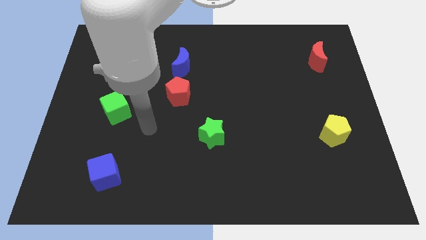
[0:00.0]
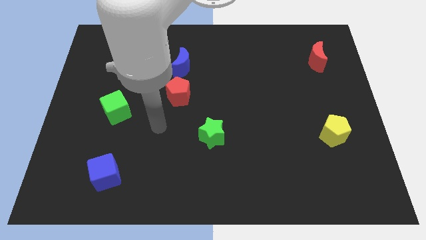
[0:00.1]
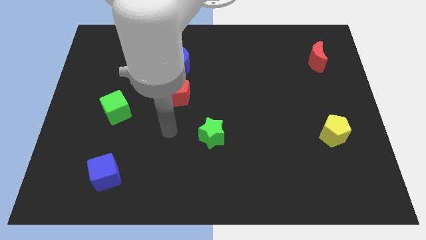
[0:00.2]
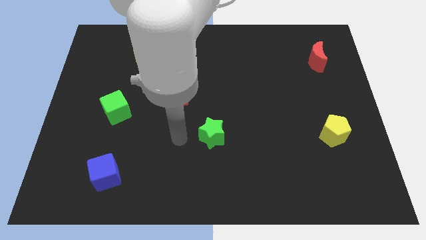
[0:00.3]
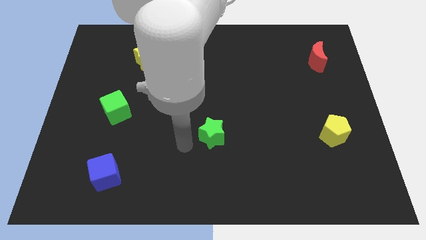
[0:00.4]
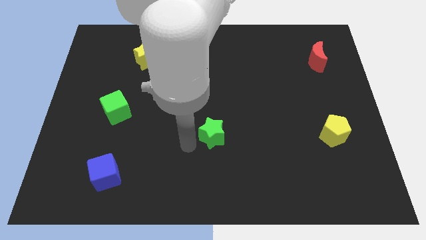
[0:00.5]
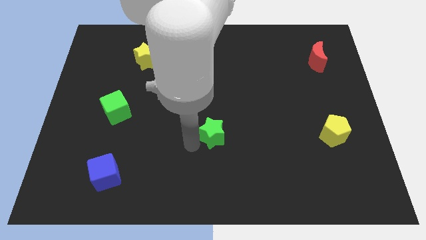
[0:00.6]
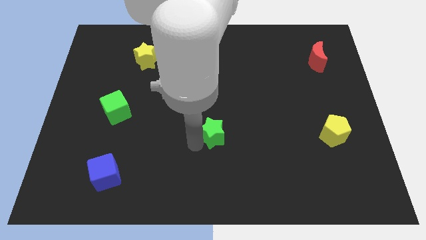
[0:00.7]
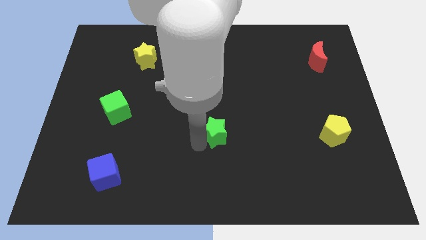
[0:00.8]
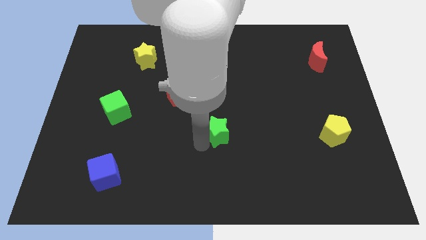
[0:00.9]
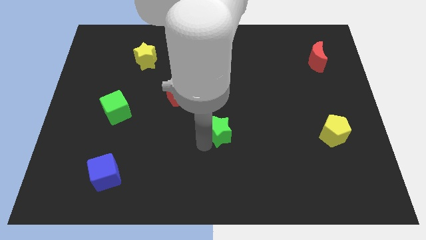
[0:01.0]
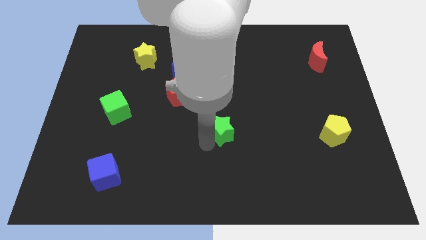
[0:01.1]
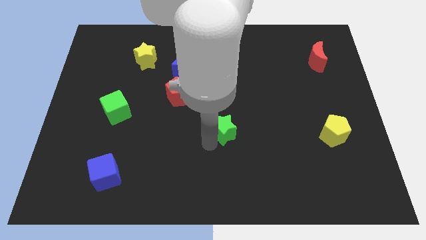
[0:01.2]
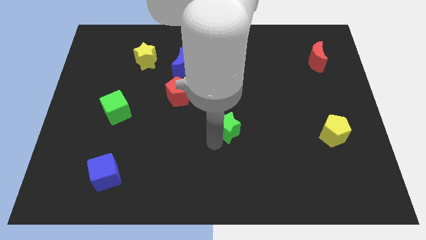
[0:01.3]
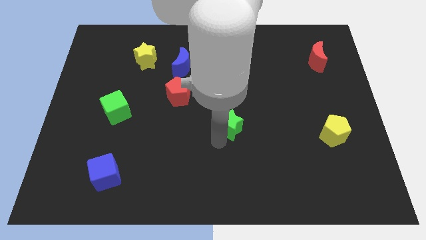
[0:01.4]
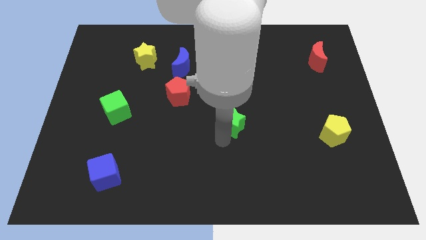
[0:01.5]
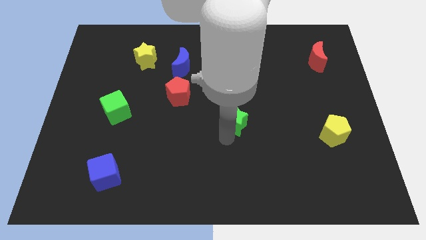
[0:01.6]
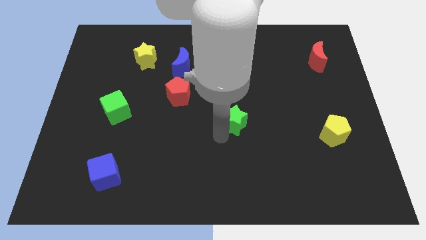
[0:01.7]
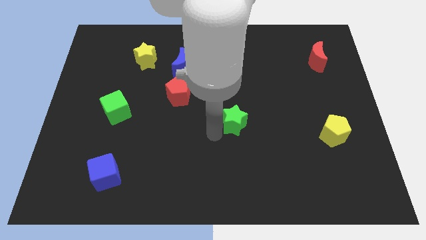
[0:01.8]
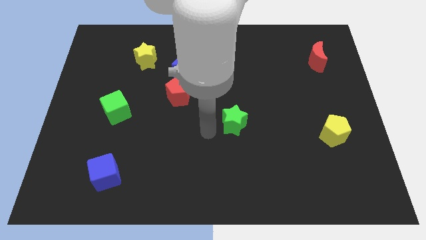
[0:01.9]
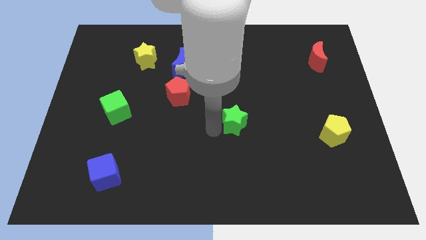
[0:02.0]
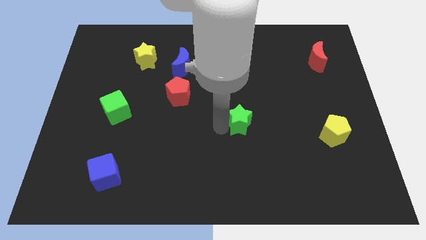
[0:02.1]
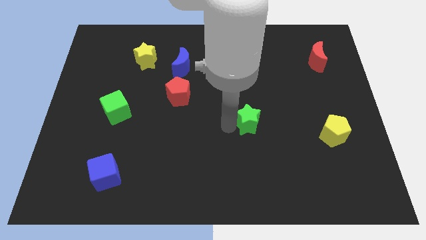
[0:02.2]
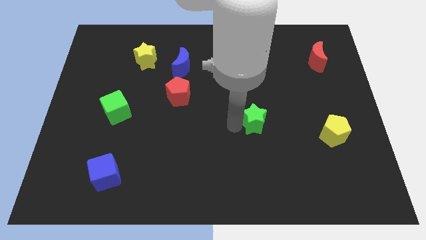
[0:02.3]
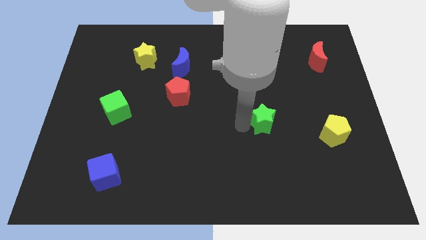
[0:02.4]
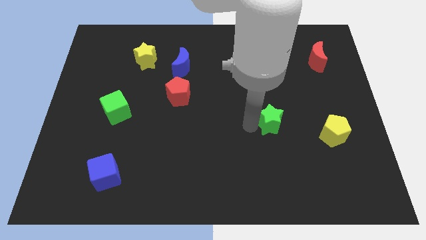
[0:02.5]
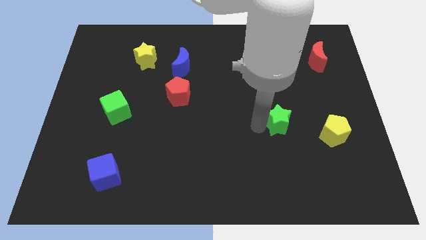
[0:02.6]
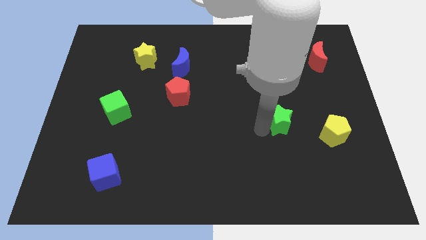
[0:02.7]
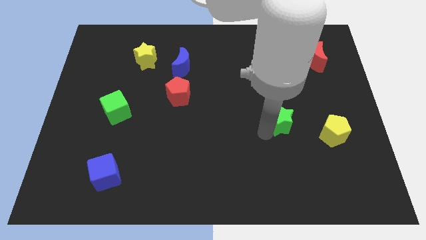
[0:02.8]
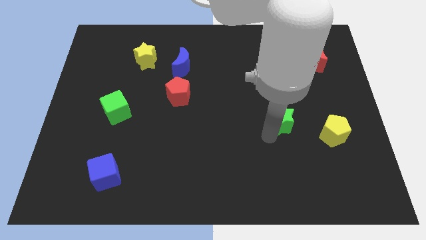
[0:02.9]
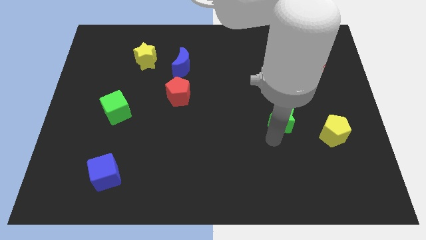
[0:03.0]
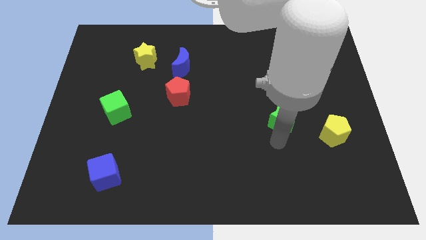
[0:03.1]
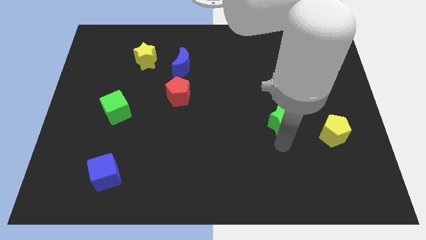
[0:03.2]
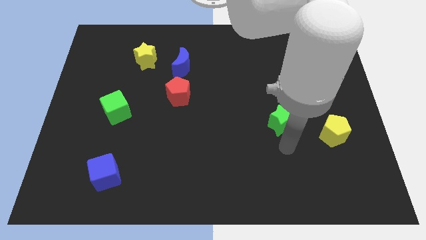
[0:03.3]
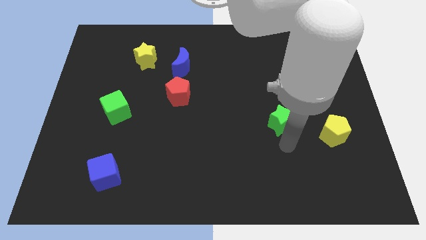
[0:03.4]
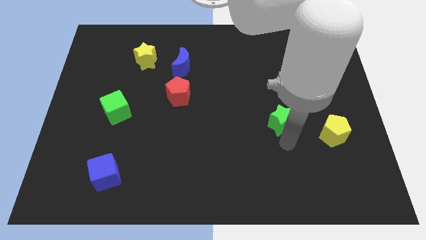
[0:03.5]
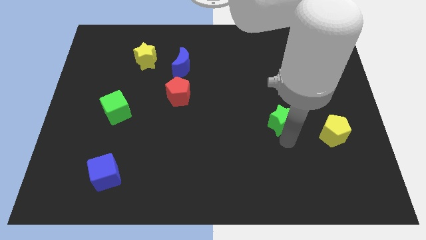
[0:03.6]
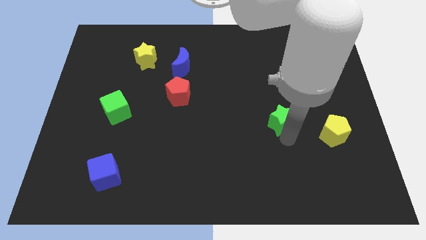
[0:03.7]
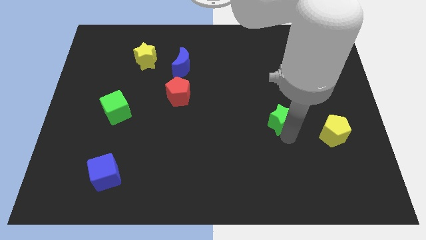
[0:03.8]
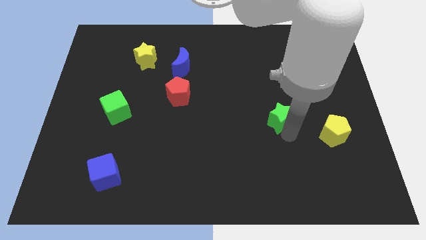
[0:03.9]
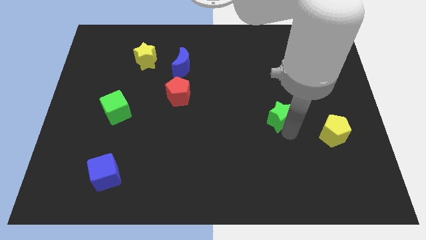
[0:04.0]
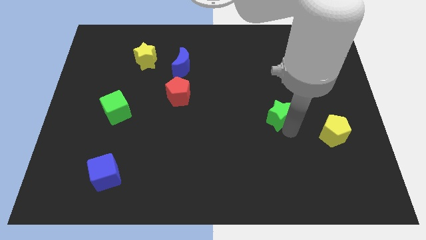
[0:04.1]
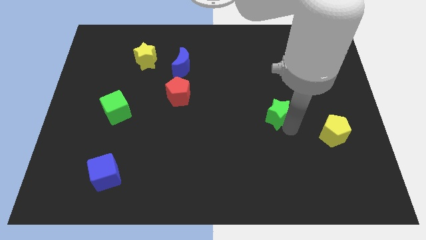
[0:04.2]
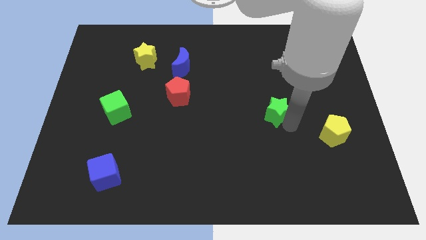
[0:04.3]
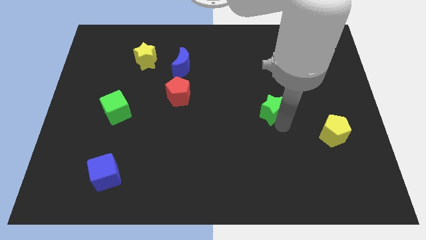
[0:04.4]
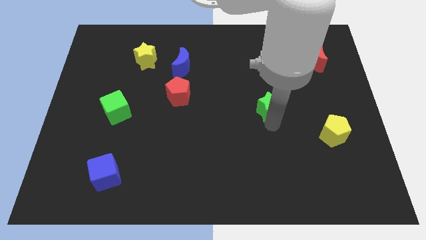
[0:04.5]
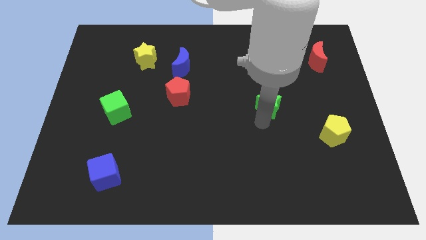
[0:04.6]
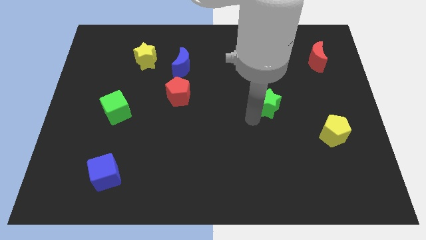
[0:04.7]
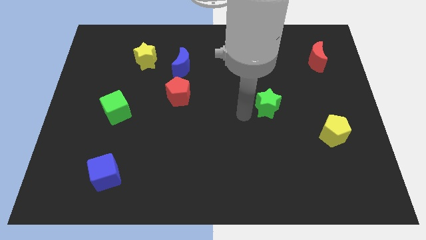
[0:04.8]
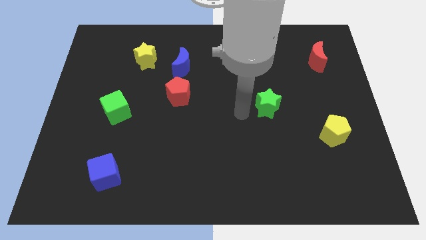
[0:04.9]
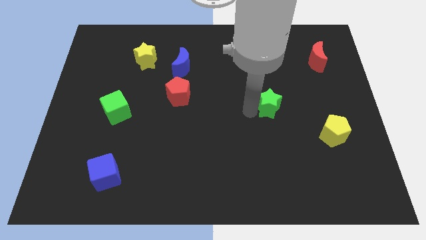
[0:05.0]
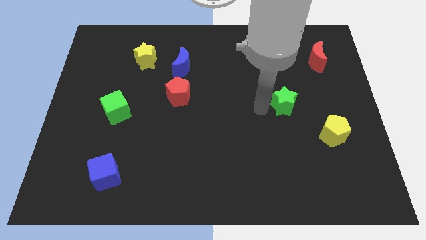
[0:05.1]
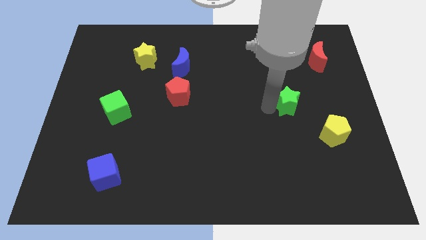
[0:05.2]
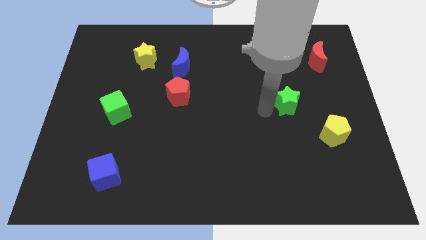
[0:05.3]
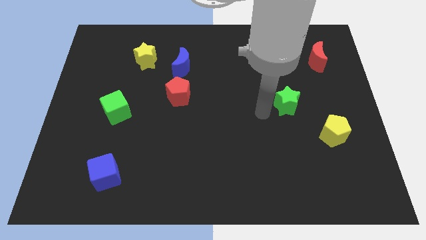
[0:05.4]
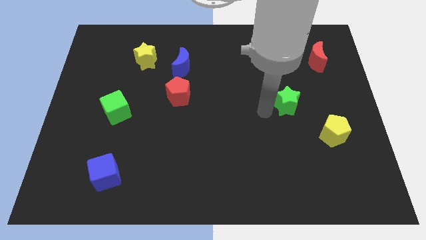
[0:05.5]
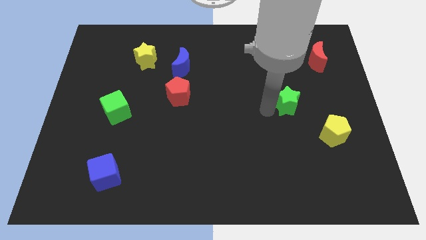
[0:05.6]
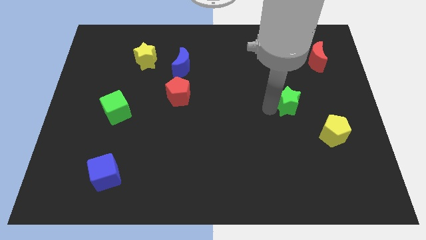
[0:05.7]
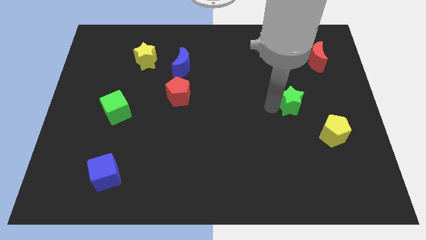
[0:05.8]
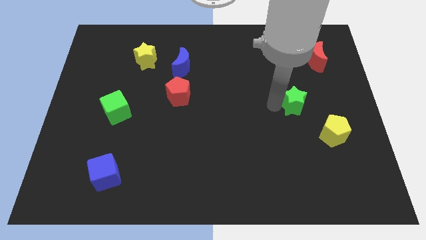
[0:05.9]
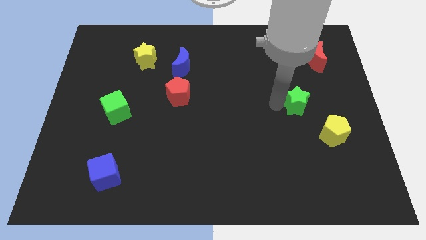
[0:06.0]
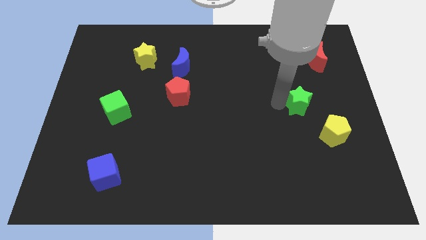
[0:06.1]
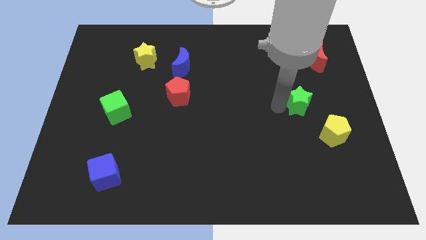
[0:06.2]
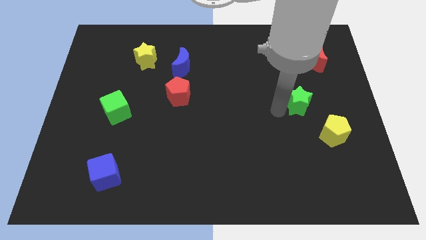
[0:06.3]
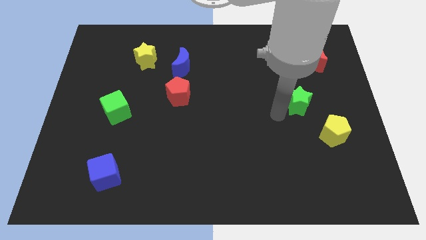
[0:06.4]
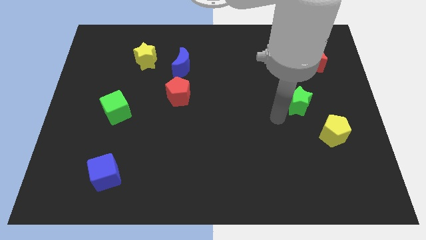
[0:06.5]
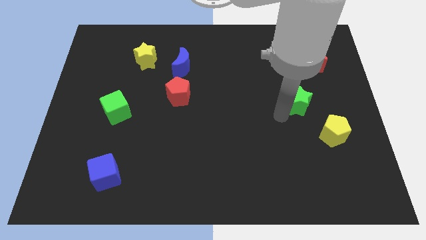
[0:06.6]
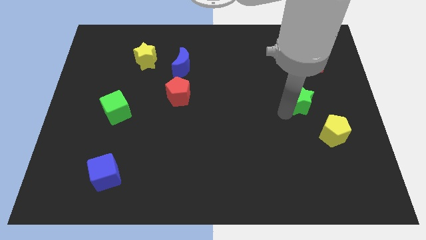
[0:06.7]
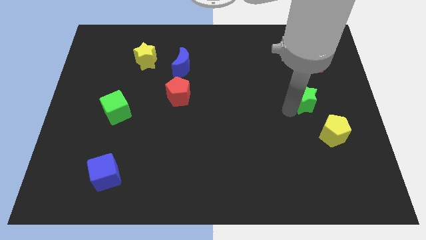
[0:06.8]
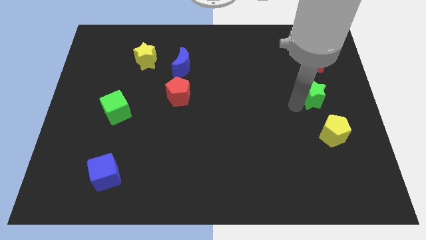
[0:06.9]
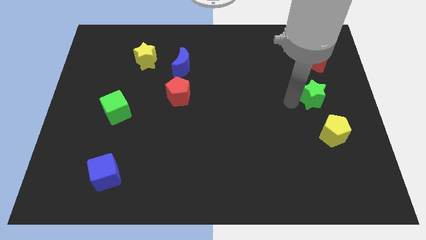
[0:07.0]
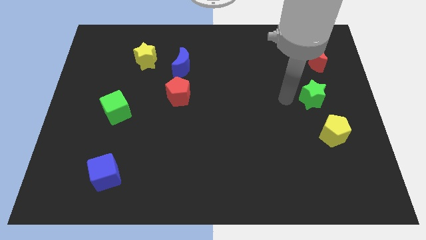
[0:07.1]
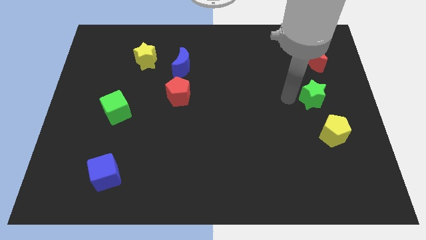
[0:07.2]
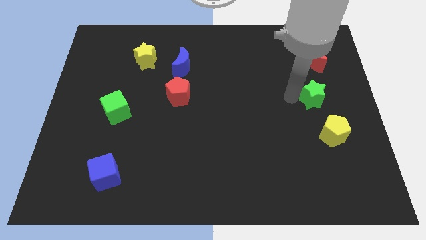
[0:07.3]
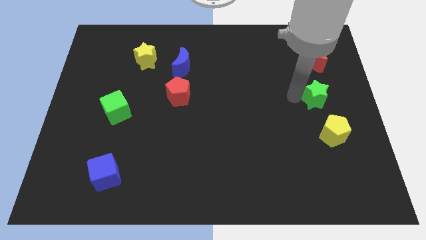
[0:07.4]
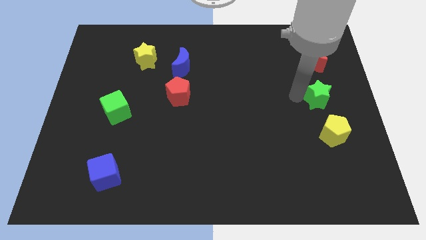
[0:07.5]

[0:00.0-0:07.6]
slide the green star to the right side
